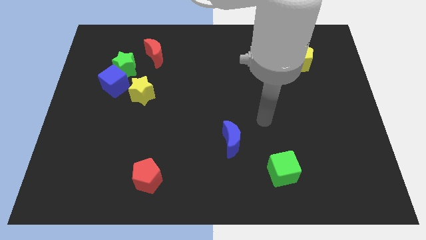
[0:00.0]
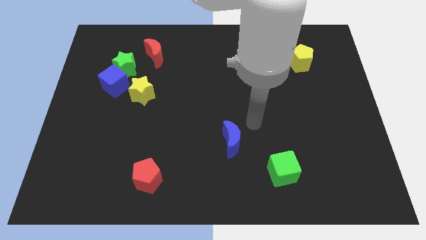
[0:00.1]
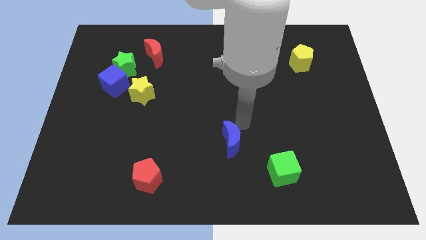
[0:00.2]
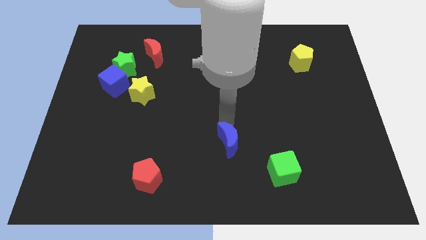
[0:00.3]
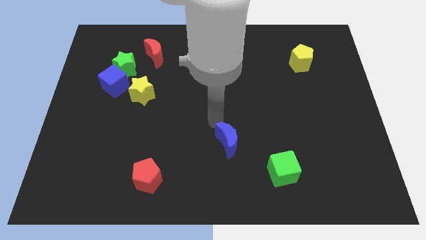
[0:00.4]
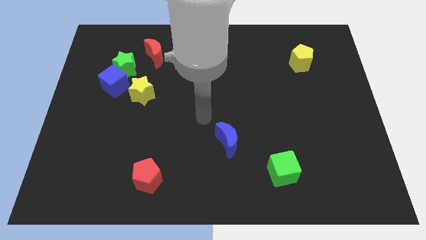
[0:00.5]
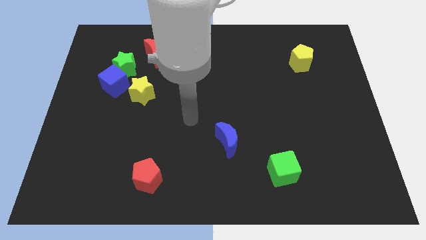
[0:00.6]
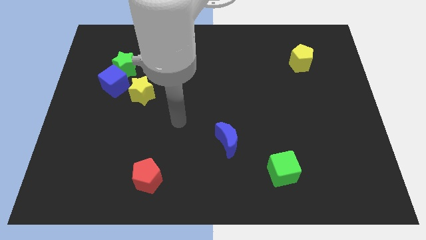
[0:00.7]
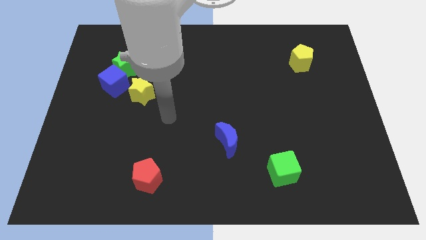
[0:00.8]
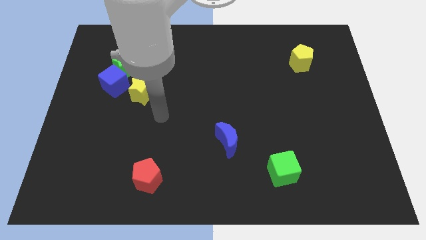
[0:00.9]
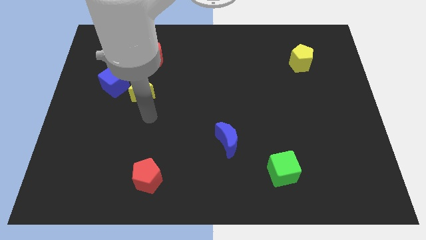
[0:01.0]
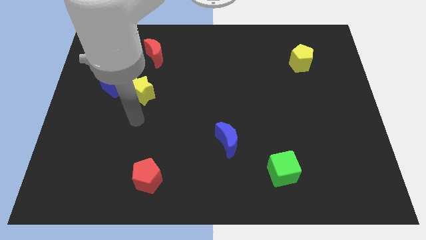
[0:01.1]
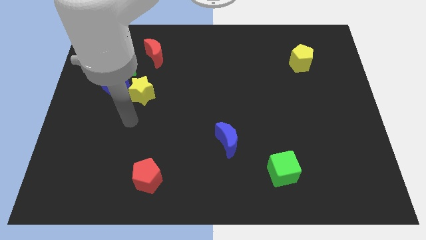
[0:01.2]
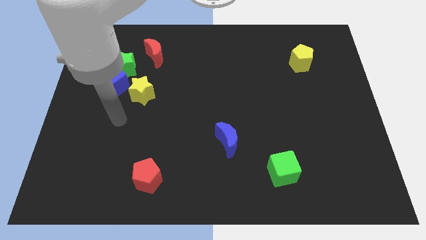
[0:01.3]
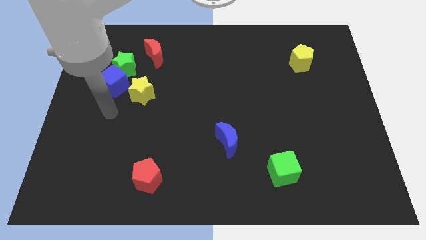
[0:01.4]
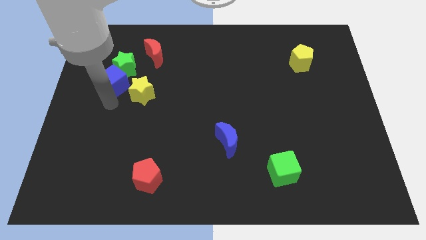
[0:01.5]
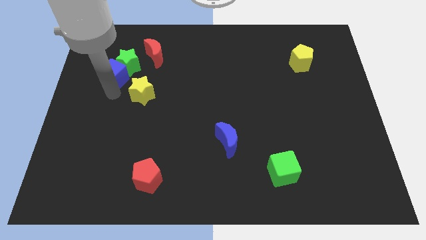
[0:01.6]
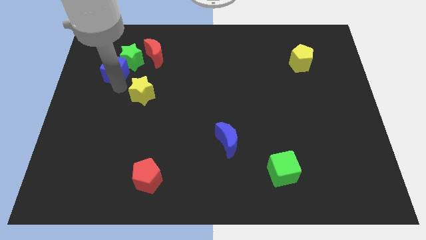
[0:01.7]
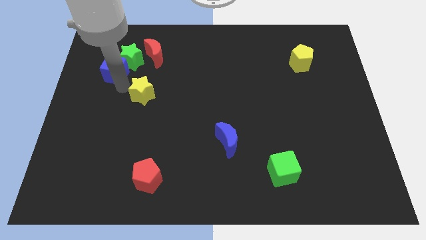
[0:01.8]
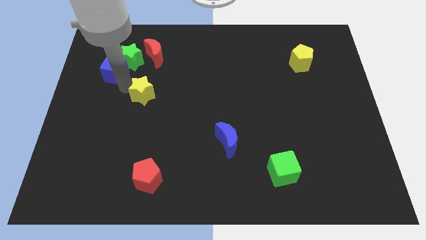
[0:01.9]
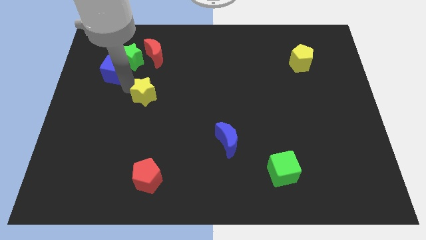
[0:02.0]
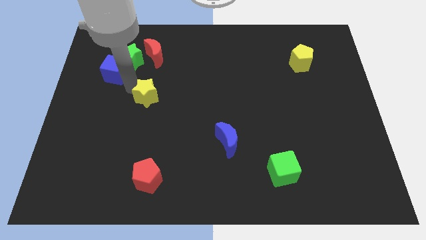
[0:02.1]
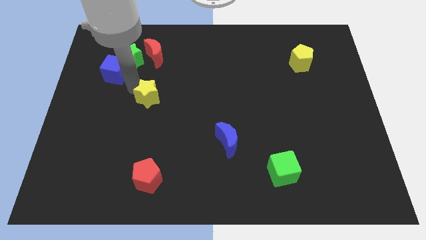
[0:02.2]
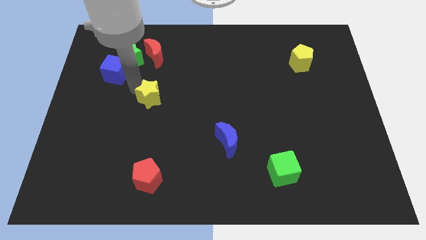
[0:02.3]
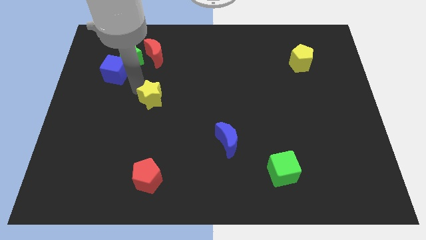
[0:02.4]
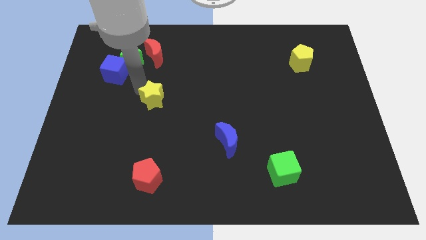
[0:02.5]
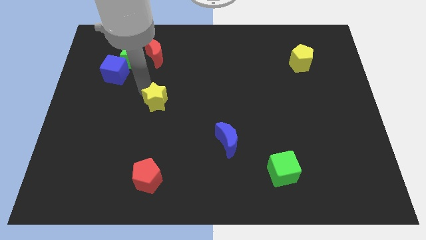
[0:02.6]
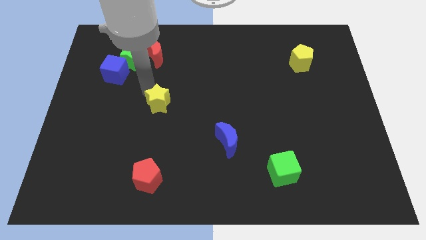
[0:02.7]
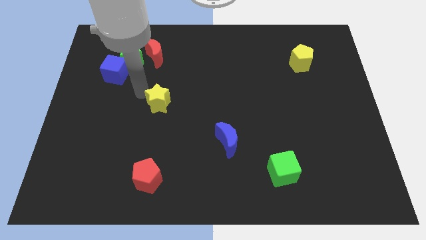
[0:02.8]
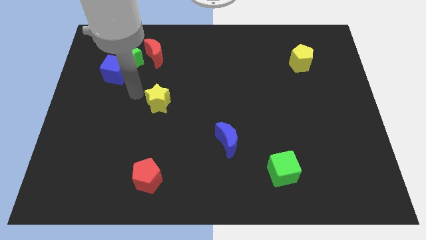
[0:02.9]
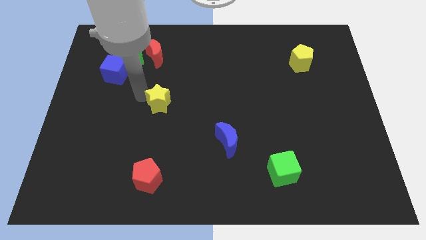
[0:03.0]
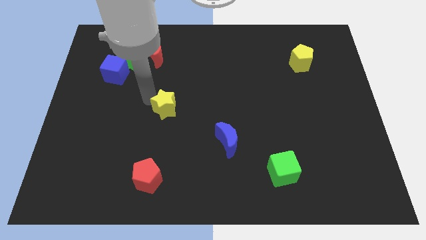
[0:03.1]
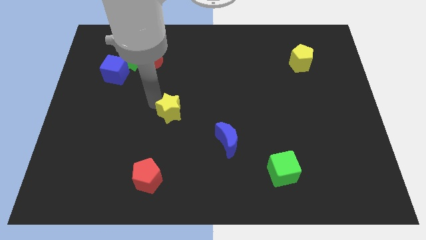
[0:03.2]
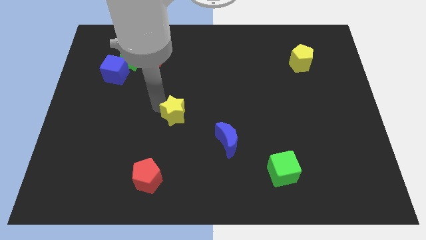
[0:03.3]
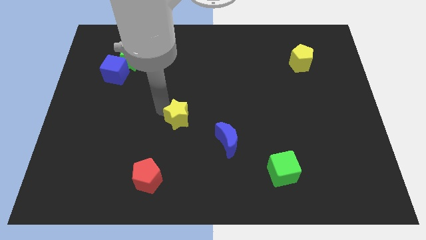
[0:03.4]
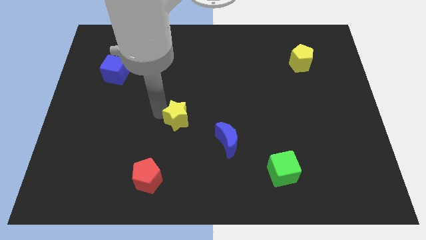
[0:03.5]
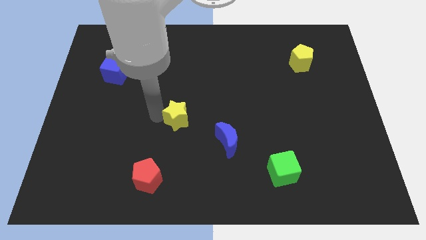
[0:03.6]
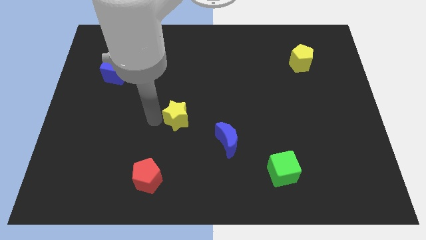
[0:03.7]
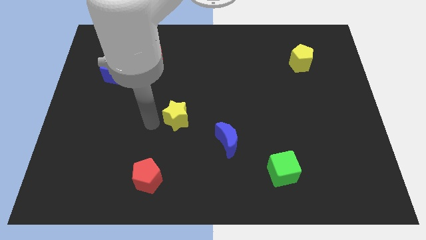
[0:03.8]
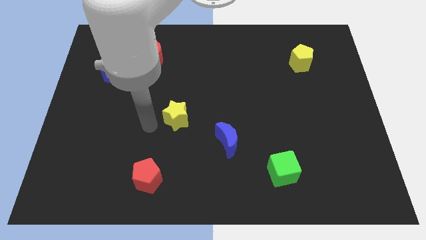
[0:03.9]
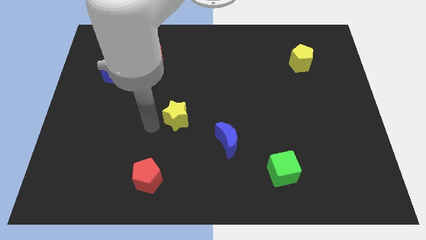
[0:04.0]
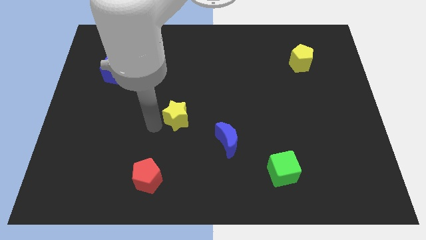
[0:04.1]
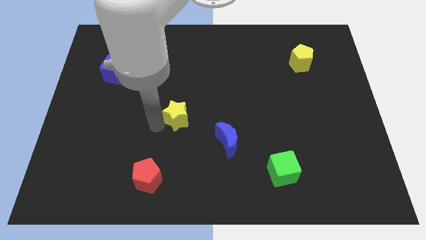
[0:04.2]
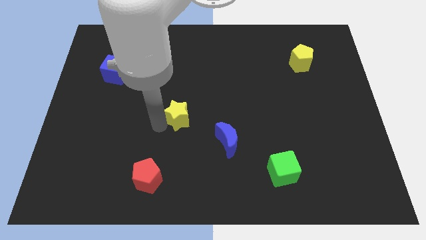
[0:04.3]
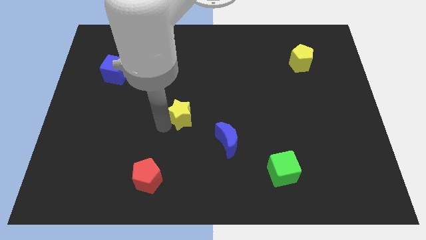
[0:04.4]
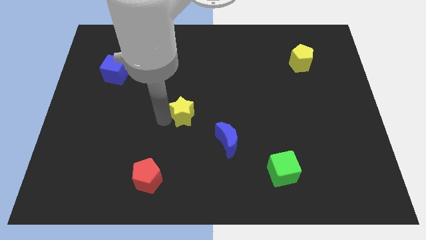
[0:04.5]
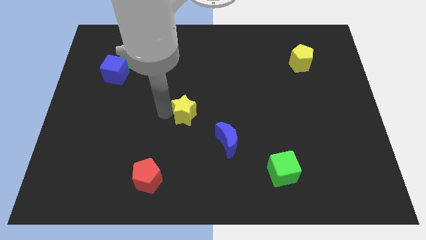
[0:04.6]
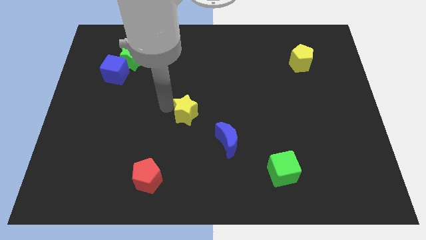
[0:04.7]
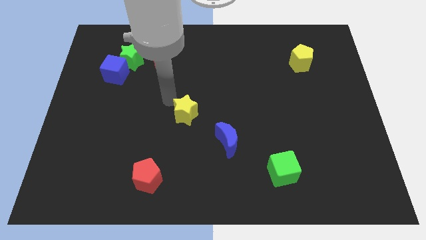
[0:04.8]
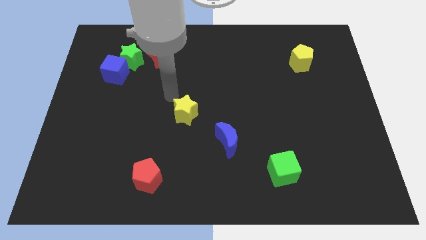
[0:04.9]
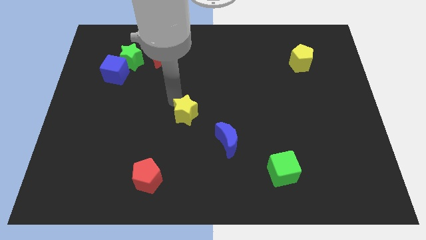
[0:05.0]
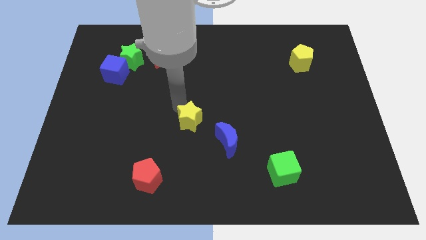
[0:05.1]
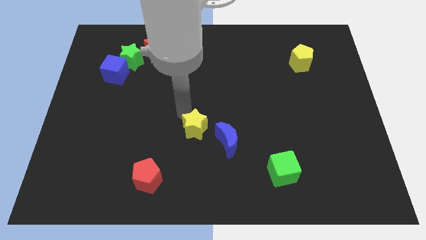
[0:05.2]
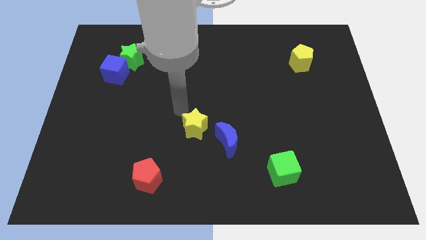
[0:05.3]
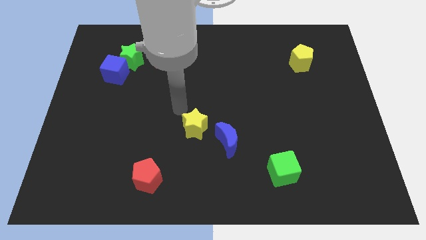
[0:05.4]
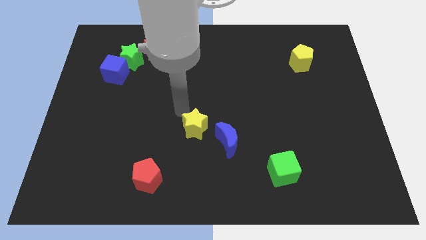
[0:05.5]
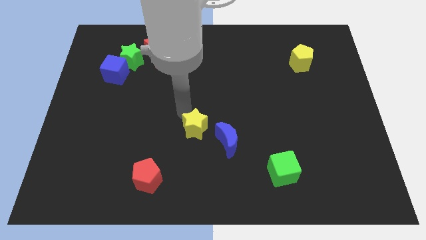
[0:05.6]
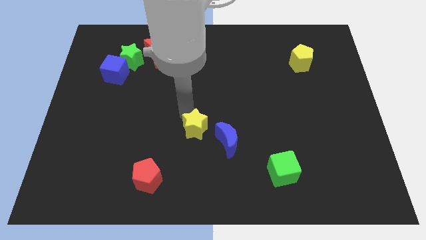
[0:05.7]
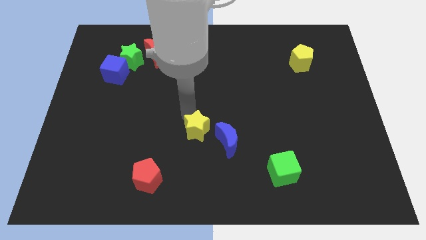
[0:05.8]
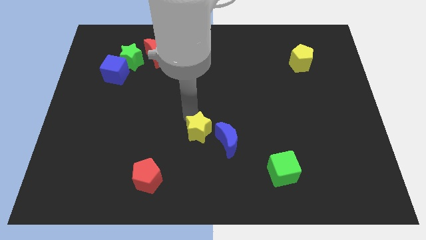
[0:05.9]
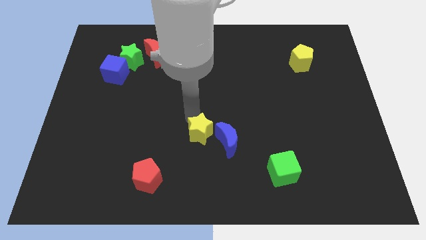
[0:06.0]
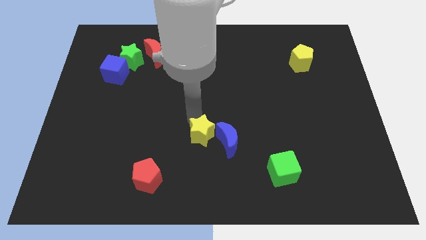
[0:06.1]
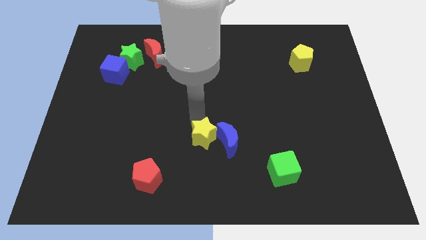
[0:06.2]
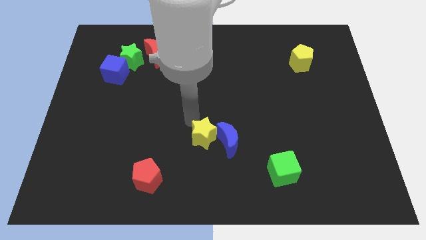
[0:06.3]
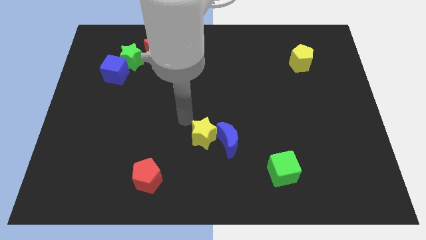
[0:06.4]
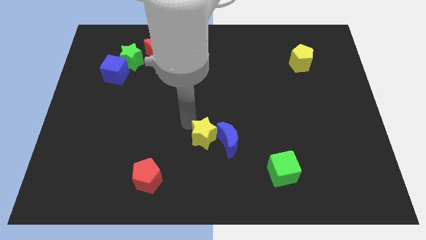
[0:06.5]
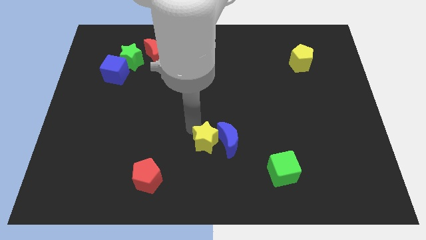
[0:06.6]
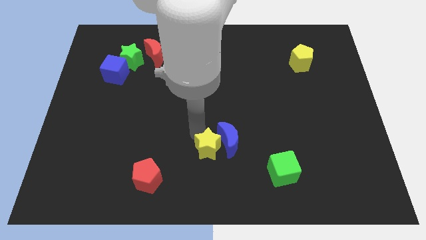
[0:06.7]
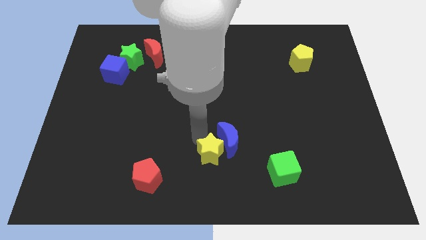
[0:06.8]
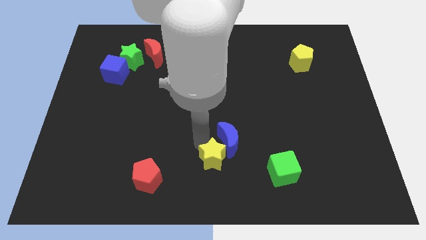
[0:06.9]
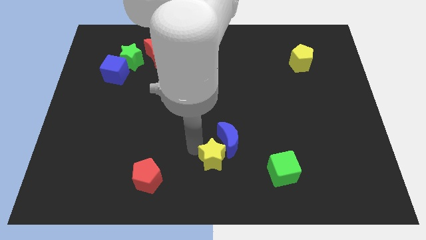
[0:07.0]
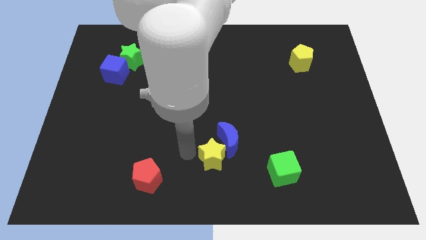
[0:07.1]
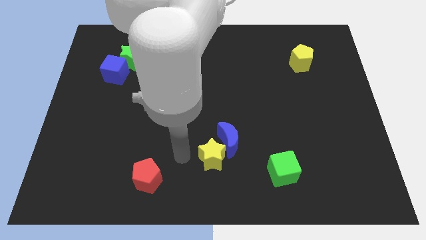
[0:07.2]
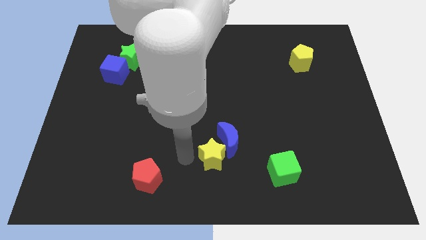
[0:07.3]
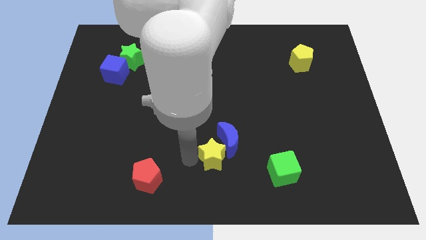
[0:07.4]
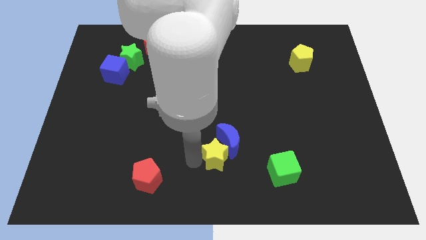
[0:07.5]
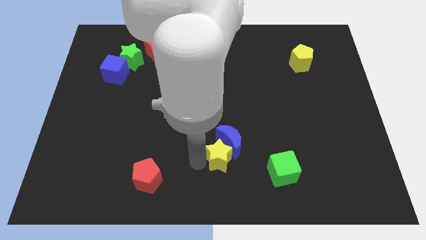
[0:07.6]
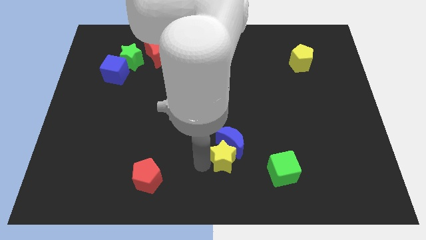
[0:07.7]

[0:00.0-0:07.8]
move the yellow star to the bottom right side of the blue moon

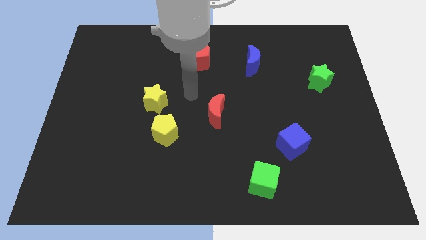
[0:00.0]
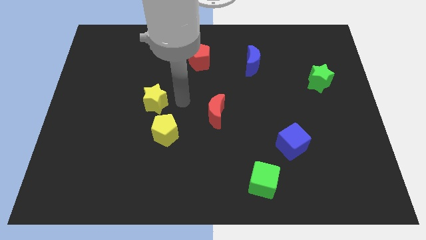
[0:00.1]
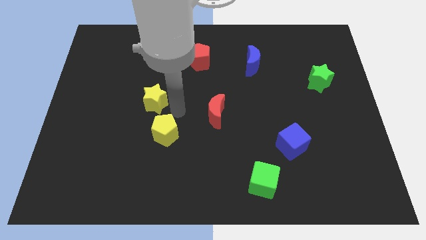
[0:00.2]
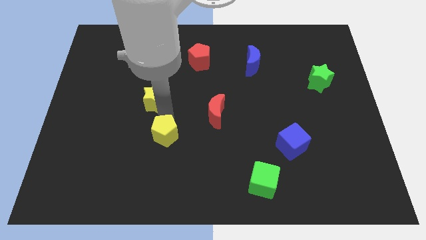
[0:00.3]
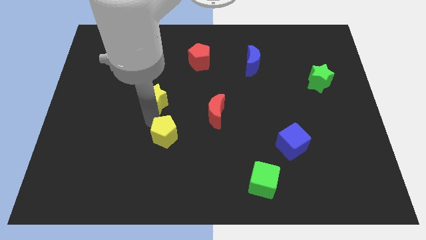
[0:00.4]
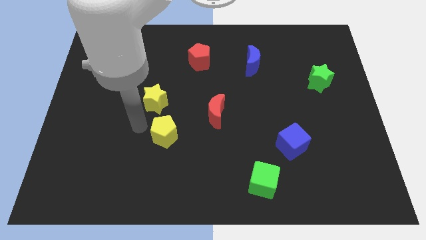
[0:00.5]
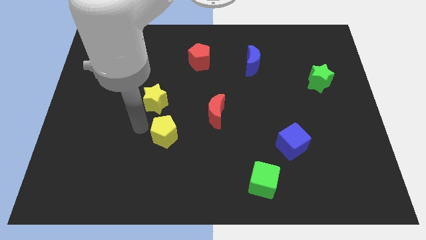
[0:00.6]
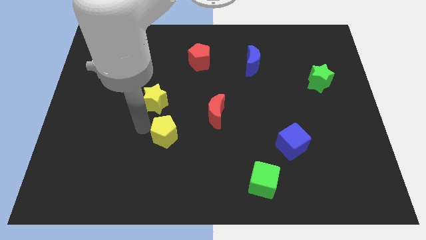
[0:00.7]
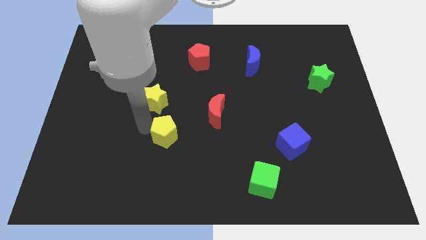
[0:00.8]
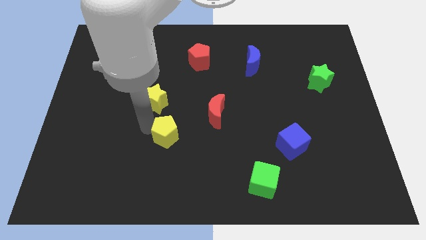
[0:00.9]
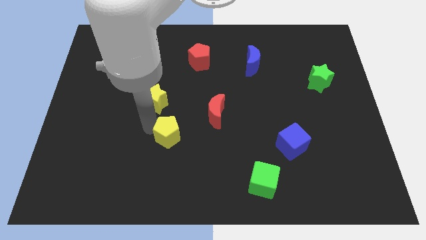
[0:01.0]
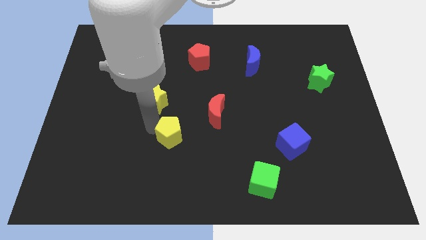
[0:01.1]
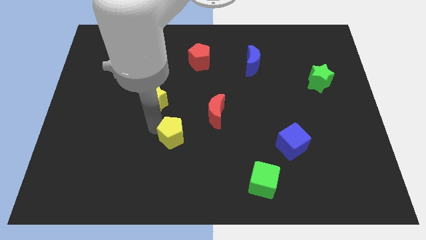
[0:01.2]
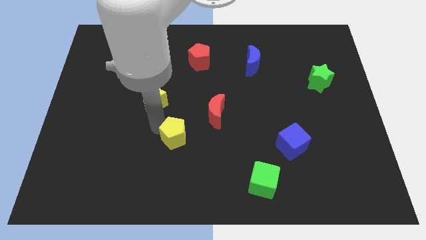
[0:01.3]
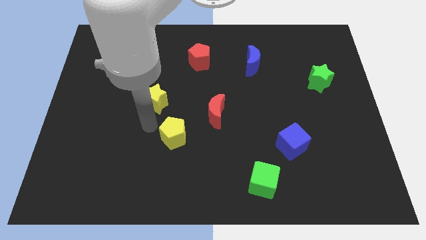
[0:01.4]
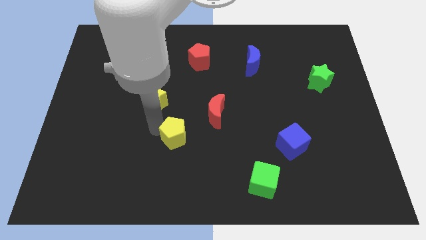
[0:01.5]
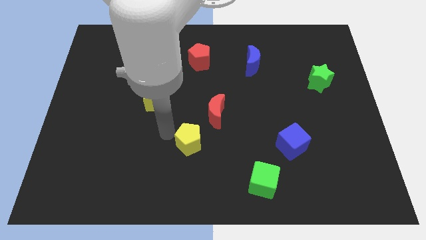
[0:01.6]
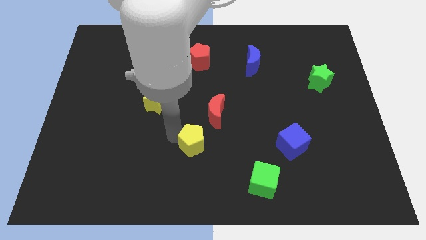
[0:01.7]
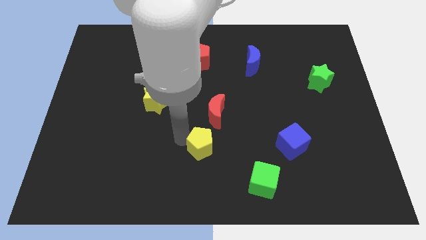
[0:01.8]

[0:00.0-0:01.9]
put the yellow pentagon to the bottom side of the red moon
